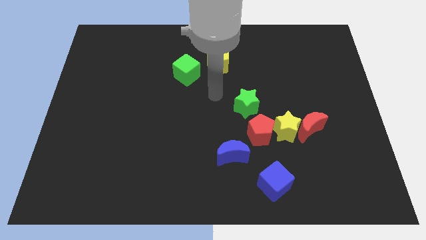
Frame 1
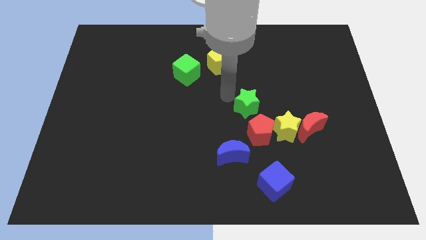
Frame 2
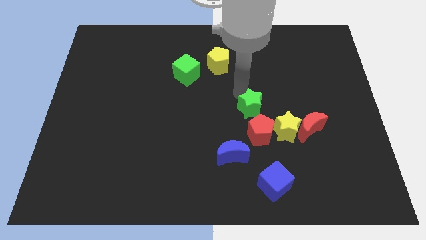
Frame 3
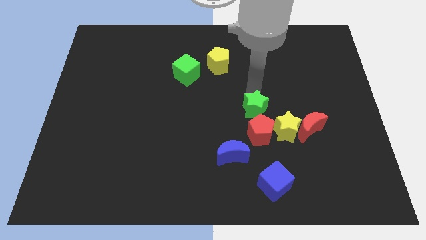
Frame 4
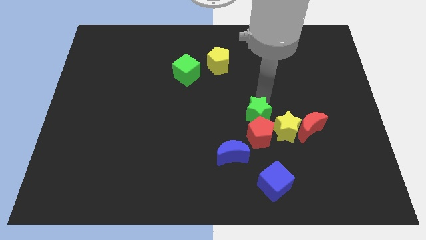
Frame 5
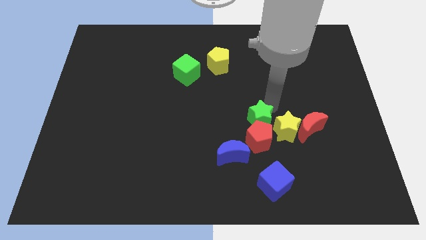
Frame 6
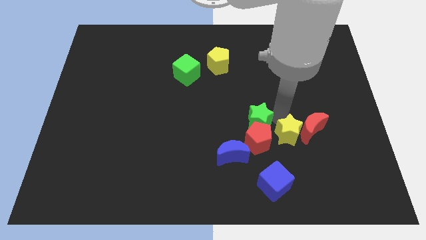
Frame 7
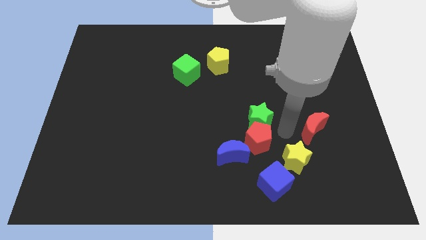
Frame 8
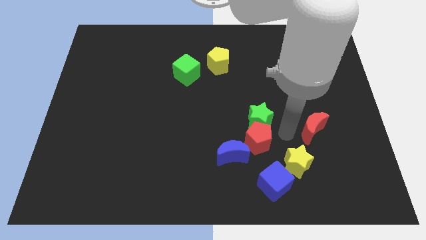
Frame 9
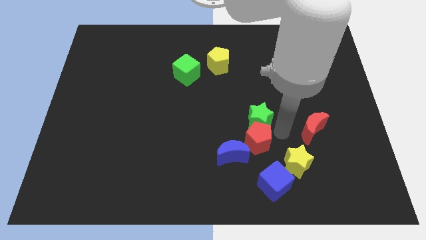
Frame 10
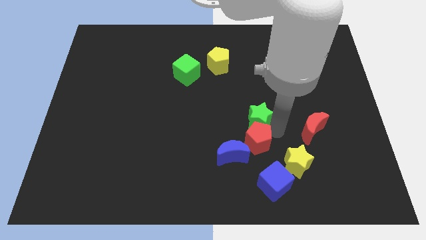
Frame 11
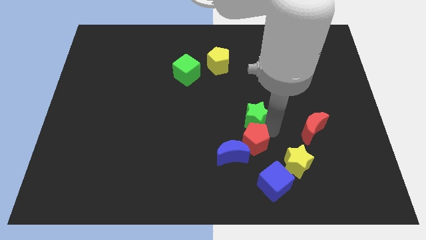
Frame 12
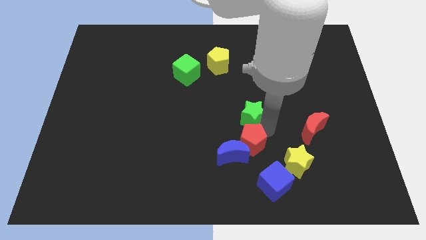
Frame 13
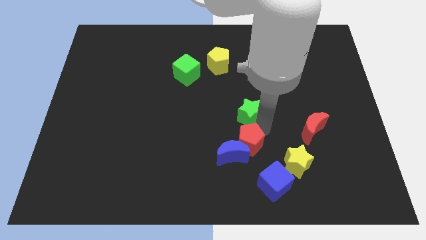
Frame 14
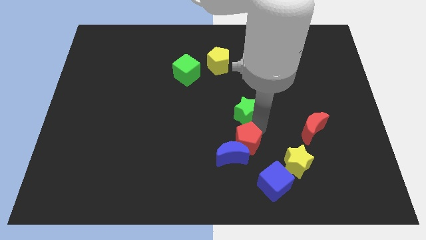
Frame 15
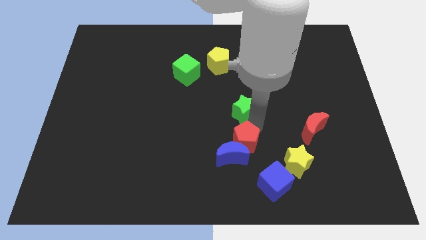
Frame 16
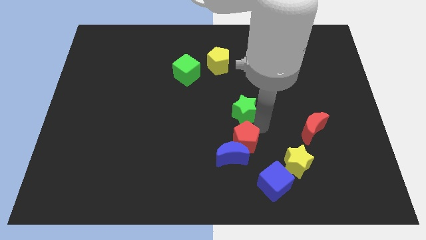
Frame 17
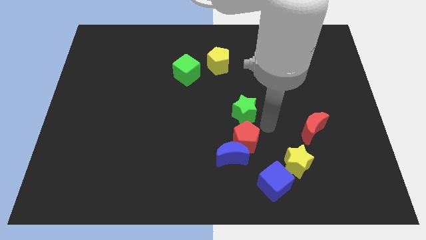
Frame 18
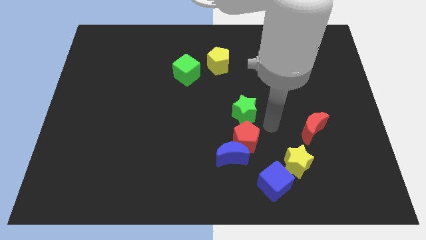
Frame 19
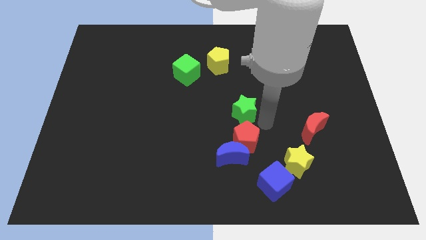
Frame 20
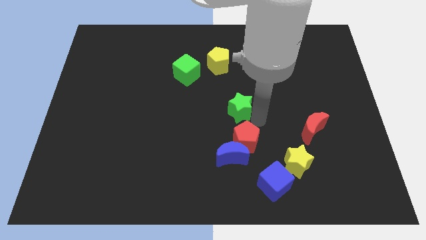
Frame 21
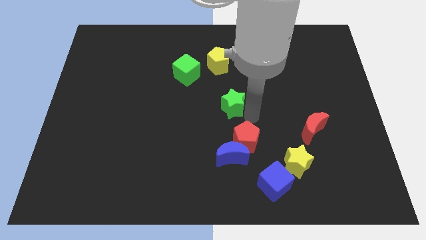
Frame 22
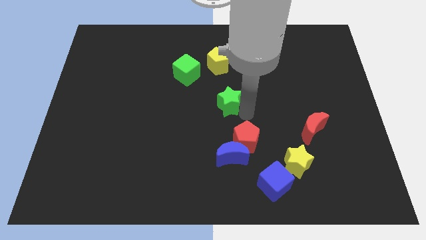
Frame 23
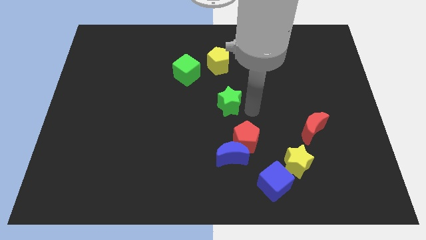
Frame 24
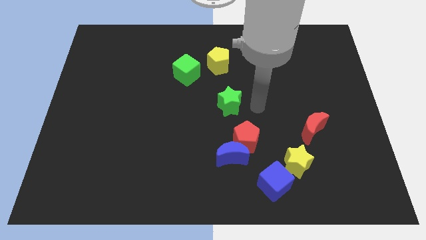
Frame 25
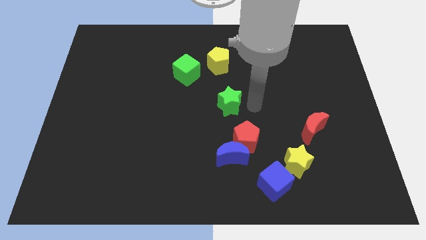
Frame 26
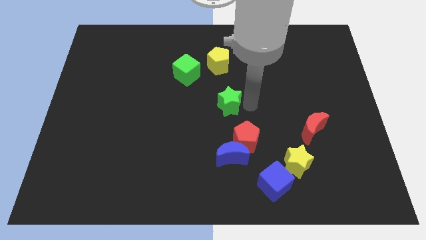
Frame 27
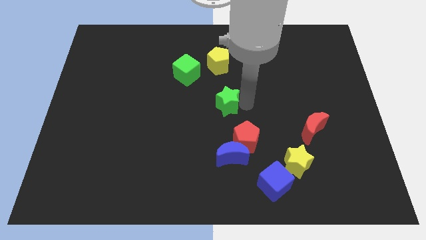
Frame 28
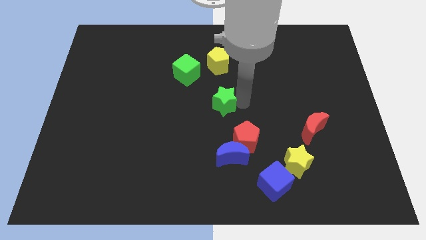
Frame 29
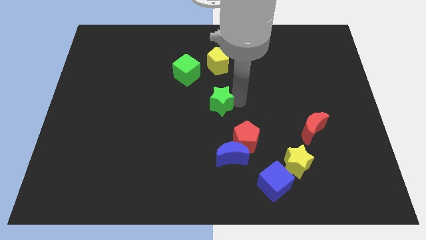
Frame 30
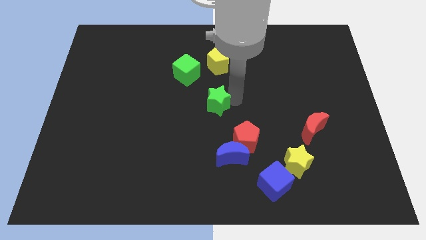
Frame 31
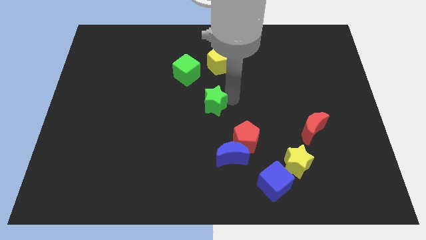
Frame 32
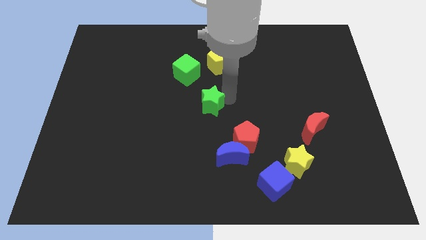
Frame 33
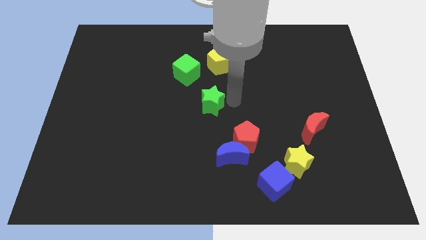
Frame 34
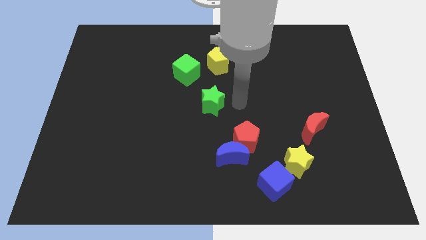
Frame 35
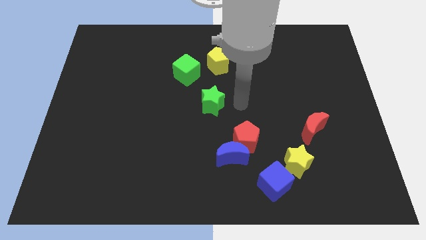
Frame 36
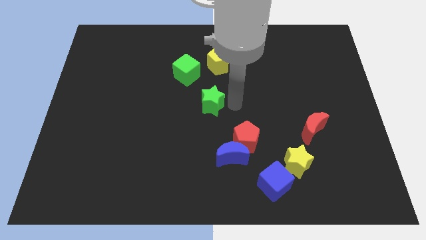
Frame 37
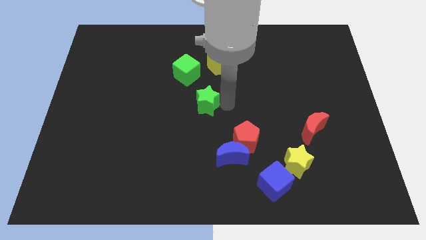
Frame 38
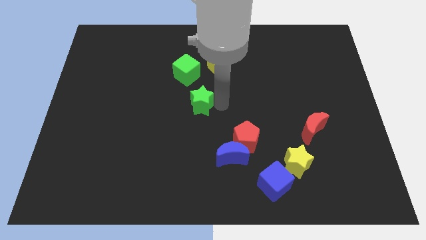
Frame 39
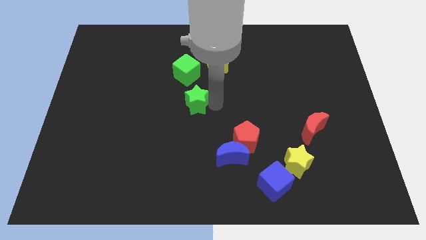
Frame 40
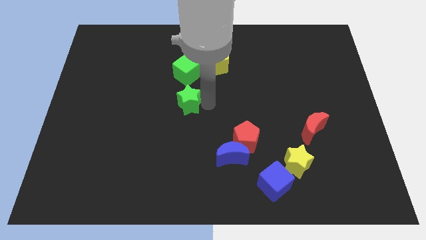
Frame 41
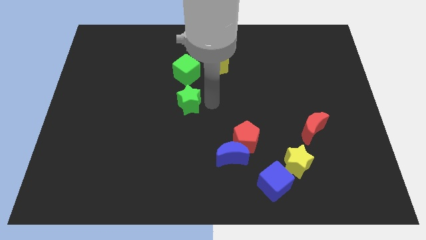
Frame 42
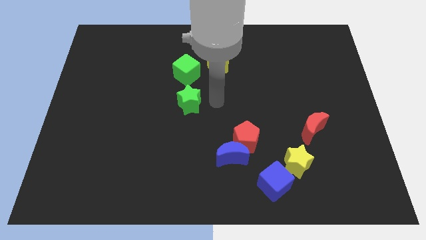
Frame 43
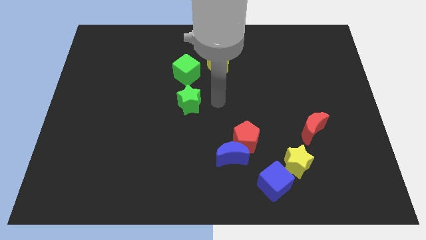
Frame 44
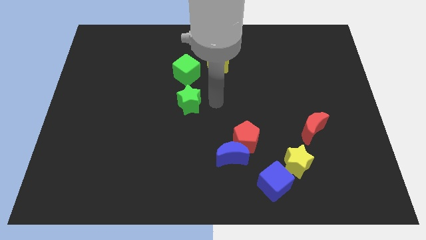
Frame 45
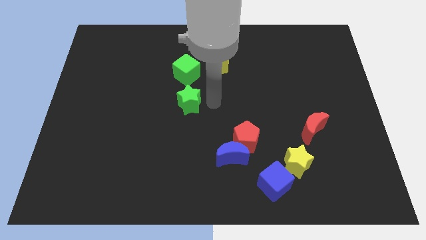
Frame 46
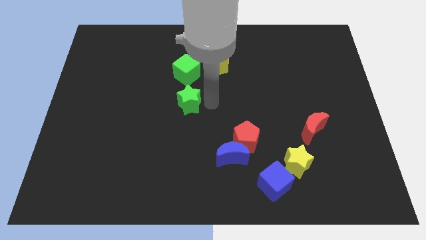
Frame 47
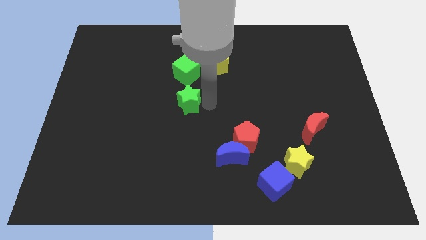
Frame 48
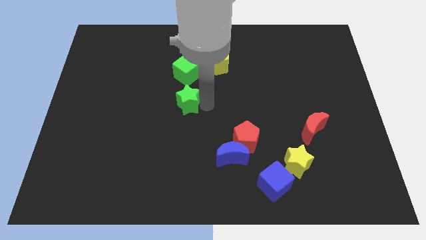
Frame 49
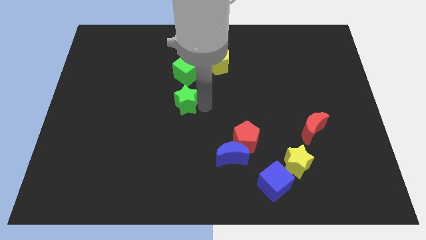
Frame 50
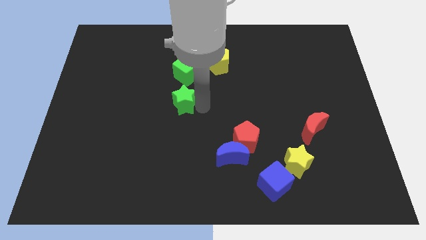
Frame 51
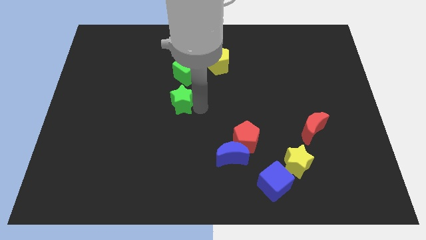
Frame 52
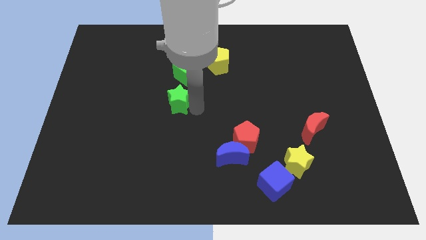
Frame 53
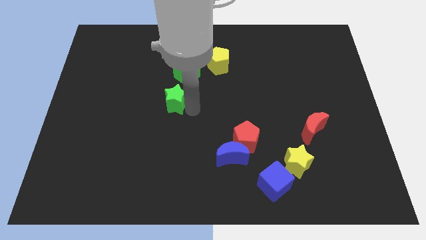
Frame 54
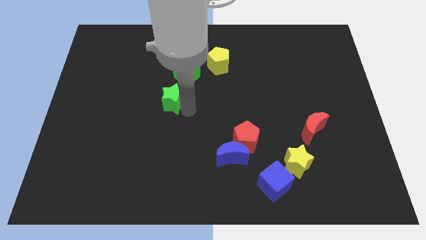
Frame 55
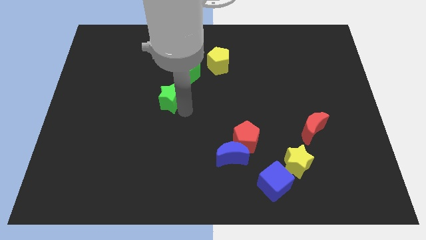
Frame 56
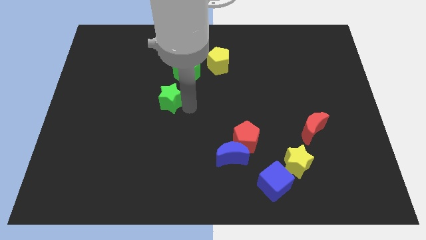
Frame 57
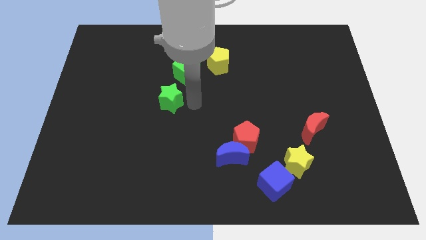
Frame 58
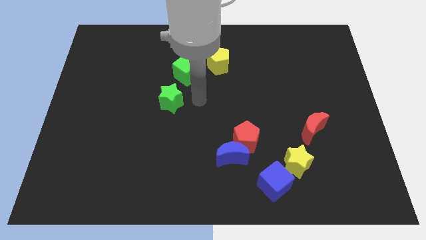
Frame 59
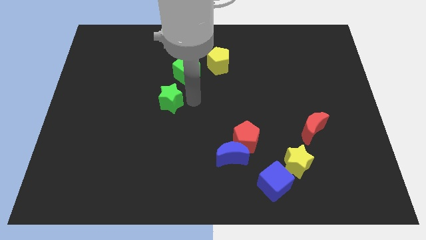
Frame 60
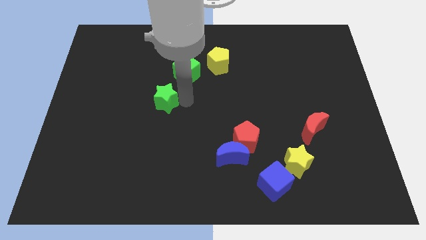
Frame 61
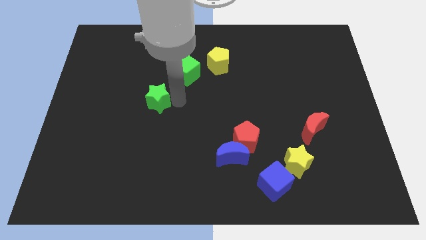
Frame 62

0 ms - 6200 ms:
move the green star to the left

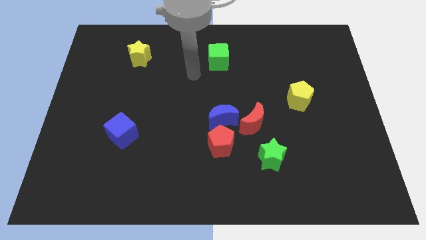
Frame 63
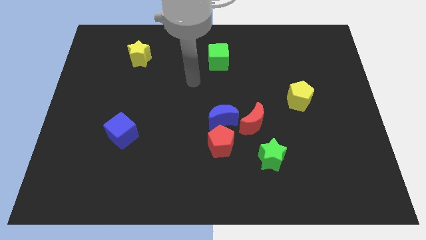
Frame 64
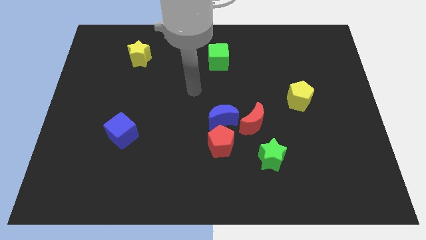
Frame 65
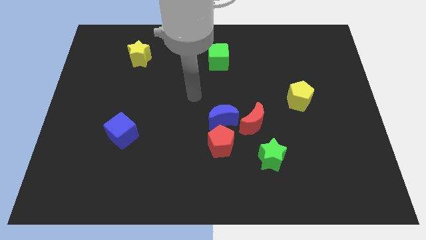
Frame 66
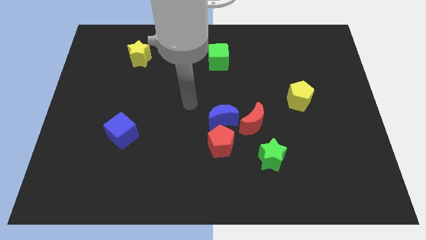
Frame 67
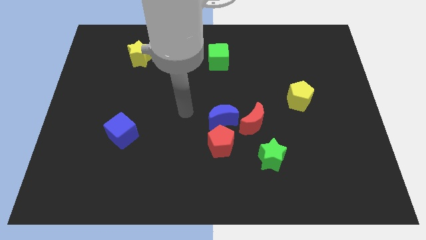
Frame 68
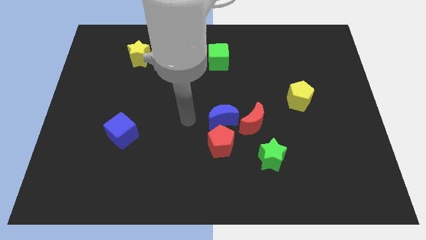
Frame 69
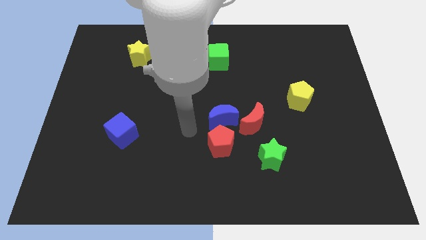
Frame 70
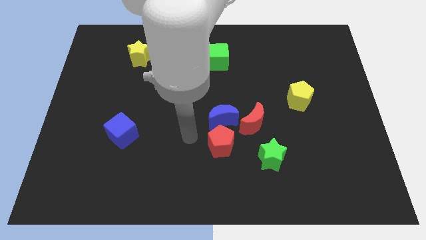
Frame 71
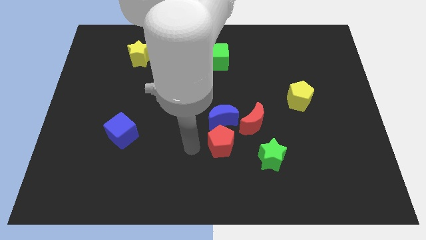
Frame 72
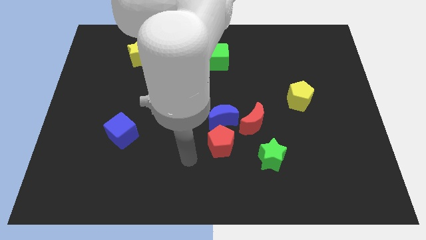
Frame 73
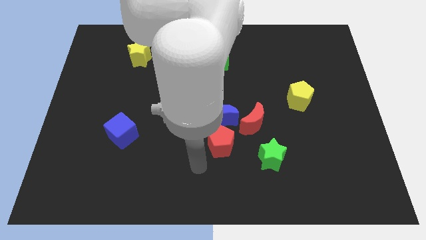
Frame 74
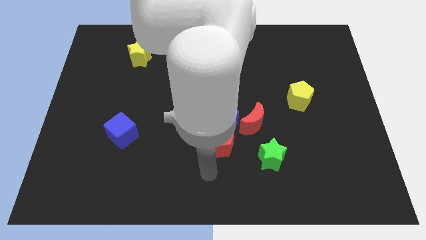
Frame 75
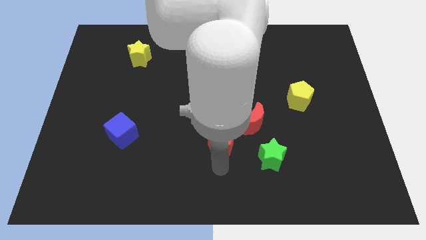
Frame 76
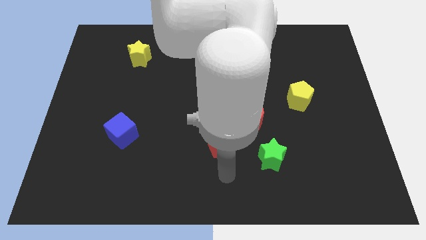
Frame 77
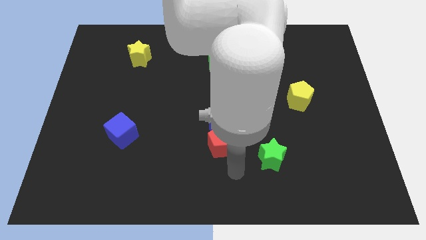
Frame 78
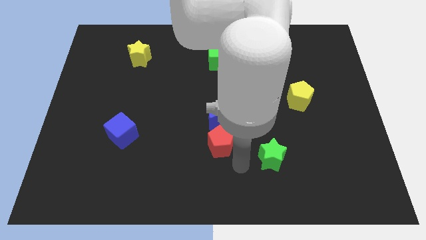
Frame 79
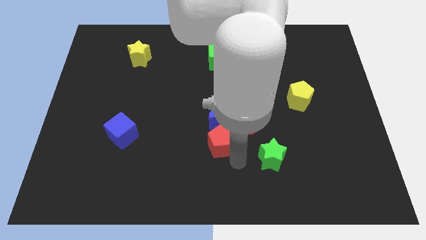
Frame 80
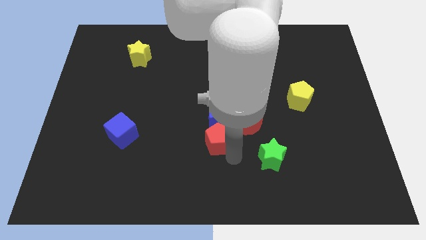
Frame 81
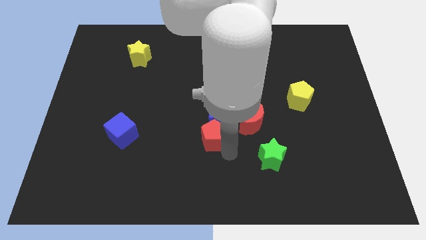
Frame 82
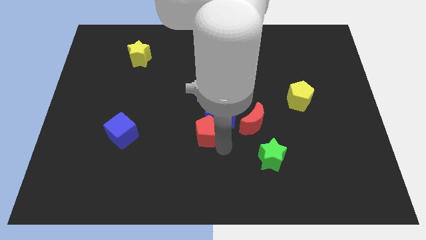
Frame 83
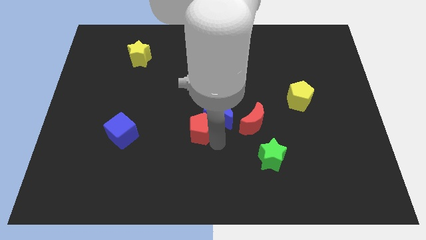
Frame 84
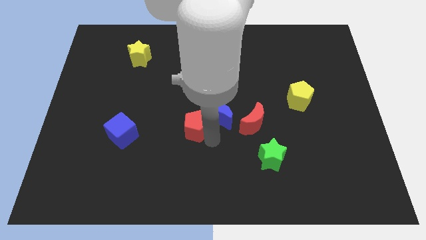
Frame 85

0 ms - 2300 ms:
slide the red pentagon a little diagonally up and to the left
